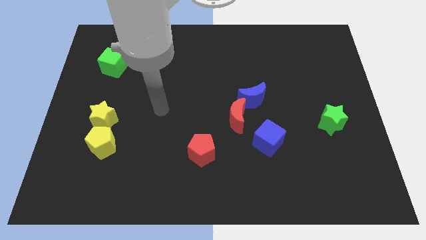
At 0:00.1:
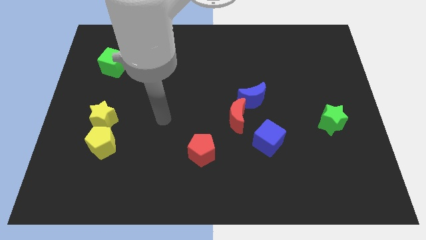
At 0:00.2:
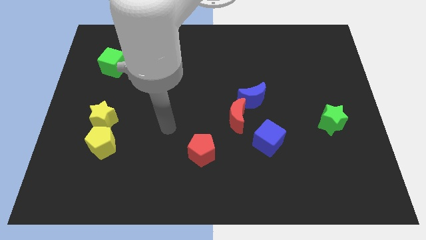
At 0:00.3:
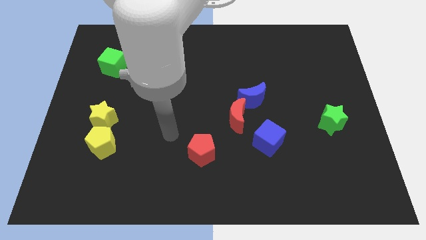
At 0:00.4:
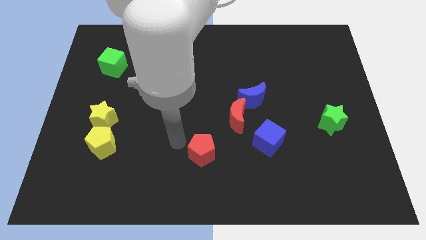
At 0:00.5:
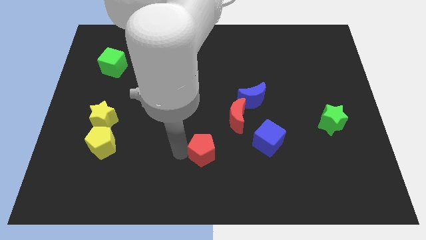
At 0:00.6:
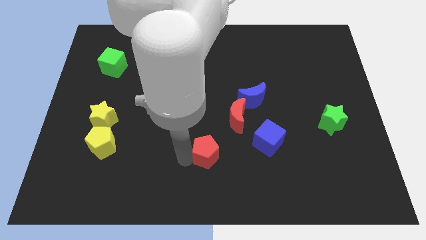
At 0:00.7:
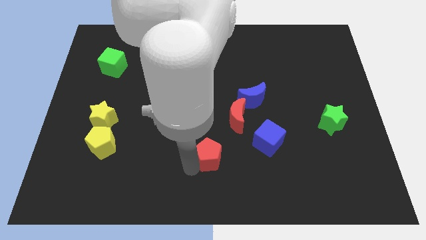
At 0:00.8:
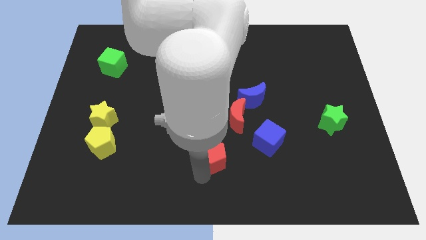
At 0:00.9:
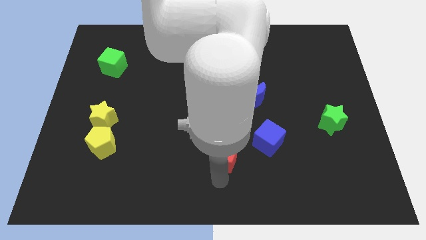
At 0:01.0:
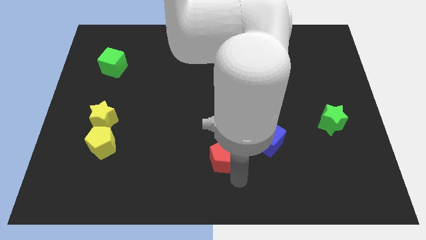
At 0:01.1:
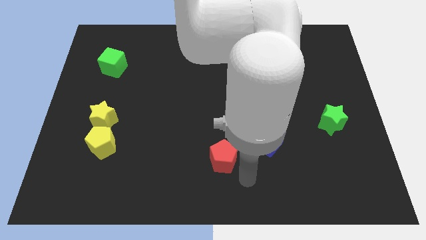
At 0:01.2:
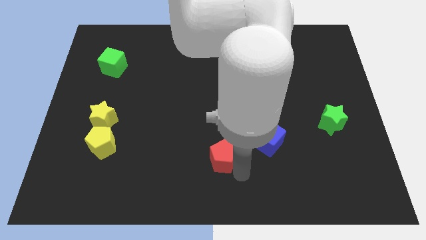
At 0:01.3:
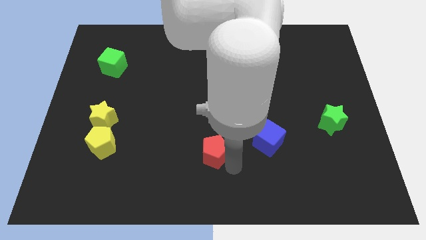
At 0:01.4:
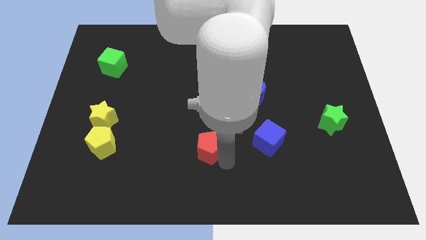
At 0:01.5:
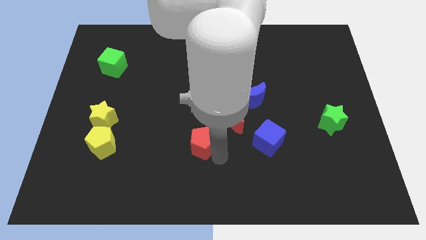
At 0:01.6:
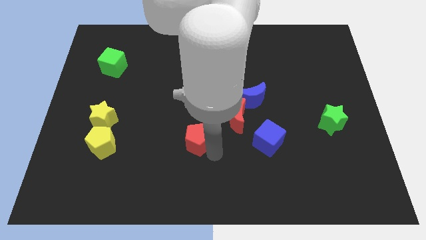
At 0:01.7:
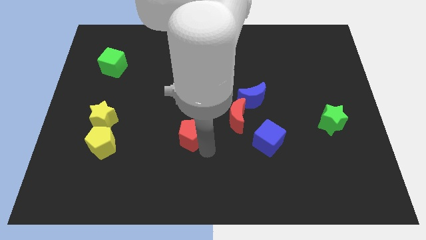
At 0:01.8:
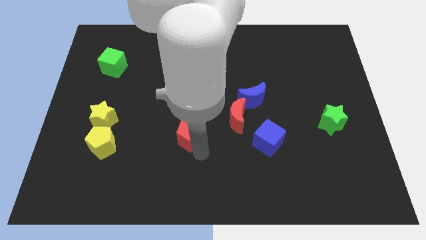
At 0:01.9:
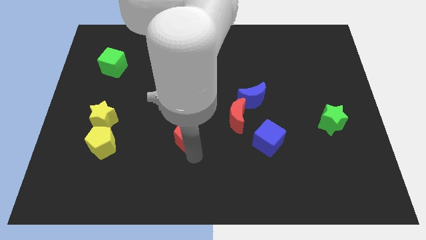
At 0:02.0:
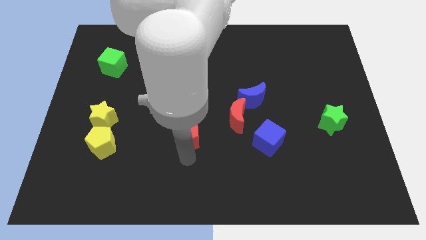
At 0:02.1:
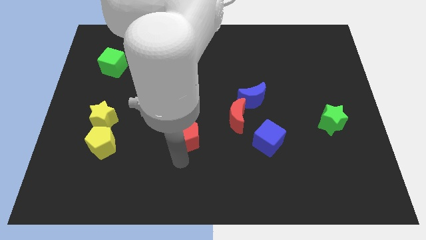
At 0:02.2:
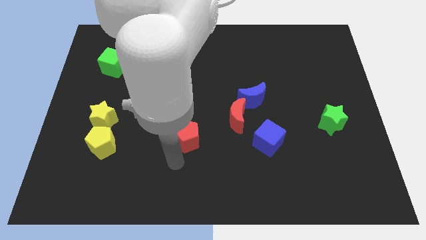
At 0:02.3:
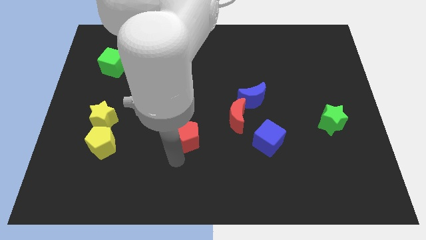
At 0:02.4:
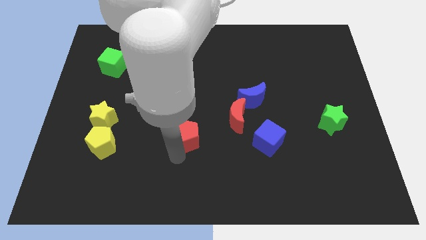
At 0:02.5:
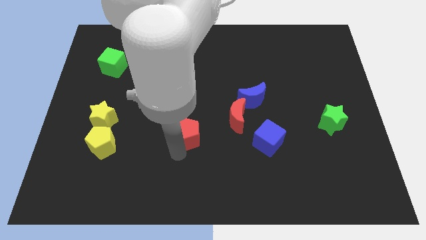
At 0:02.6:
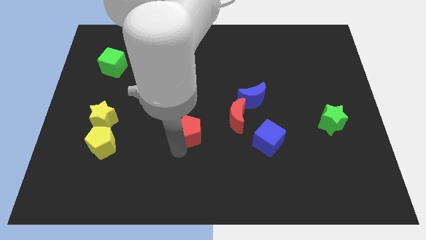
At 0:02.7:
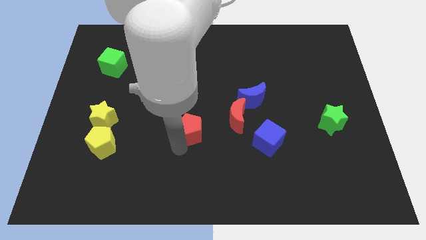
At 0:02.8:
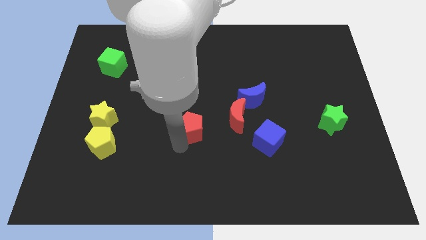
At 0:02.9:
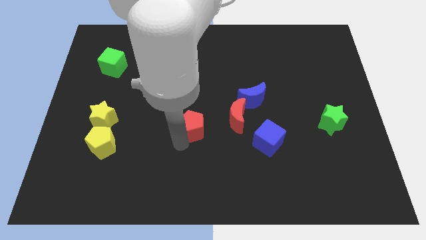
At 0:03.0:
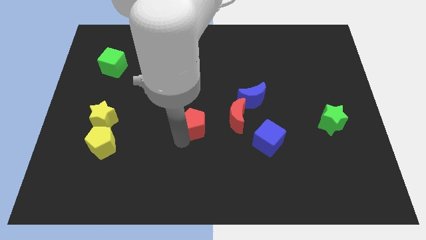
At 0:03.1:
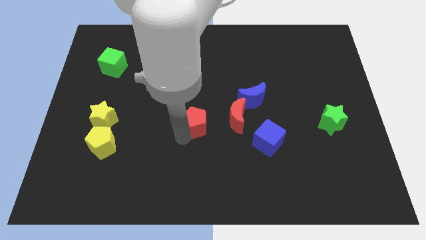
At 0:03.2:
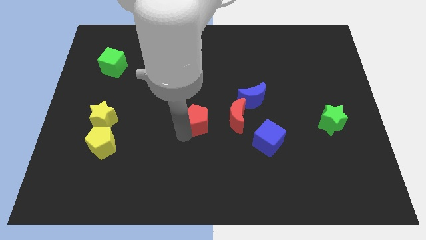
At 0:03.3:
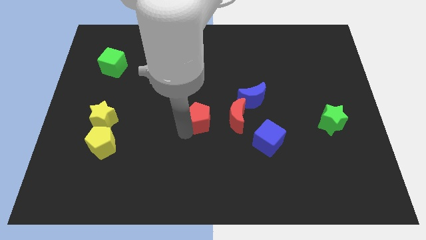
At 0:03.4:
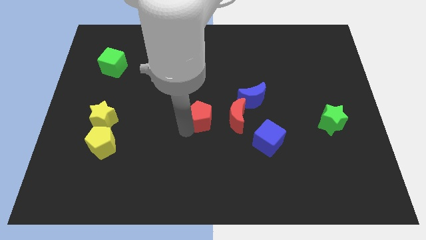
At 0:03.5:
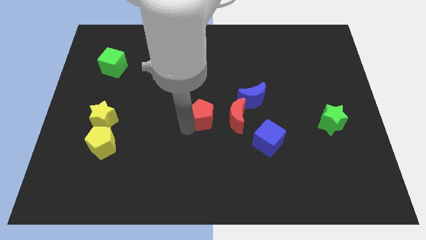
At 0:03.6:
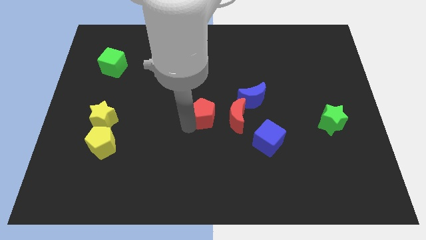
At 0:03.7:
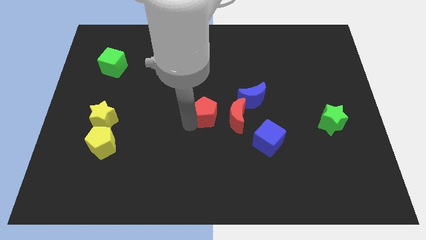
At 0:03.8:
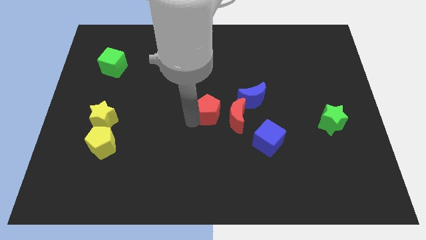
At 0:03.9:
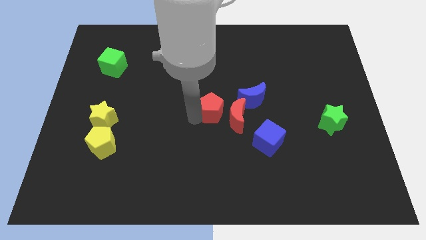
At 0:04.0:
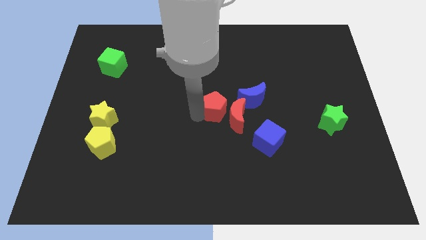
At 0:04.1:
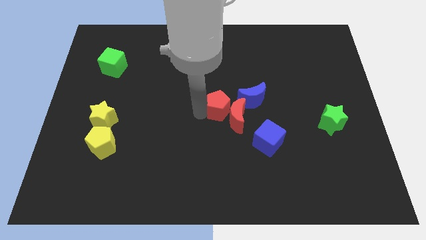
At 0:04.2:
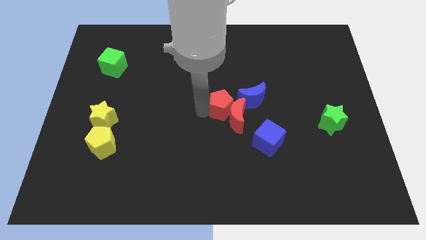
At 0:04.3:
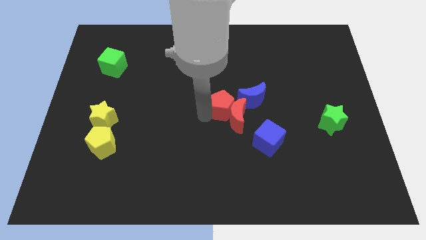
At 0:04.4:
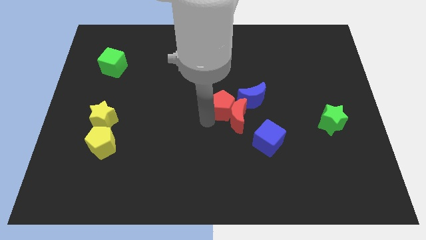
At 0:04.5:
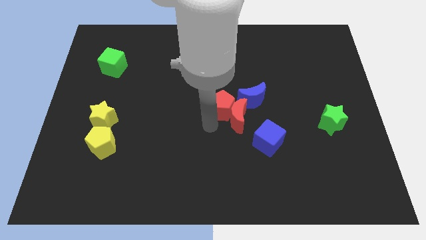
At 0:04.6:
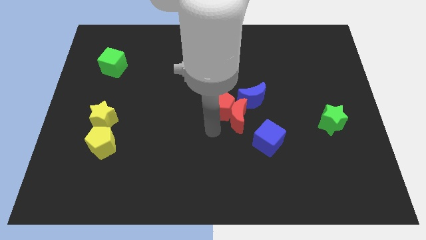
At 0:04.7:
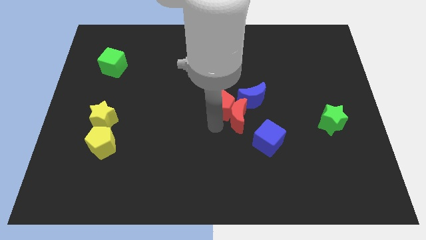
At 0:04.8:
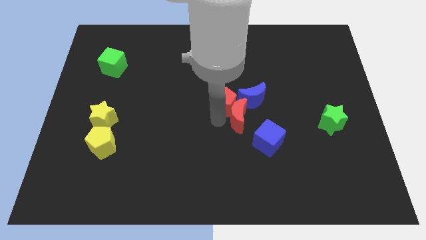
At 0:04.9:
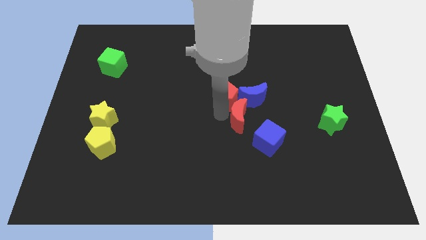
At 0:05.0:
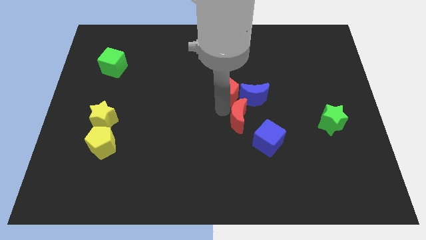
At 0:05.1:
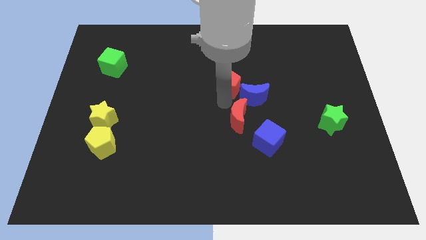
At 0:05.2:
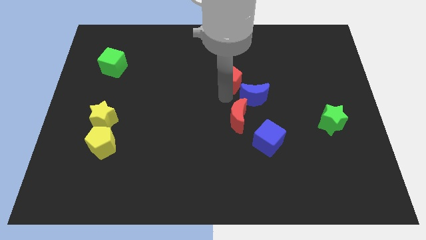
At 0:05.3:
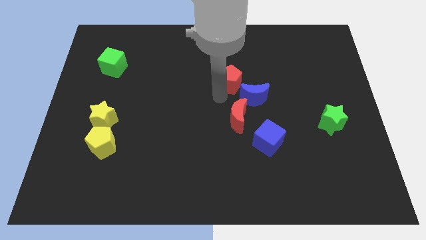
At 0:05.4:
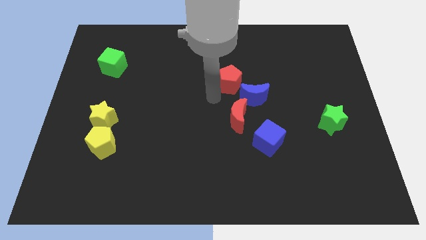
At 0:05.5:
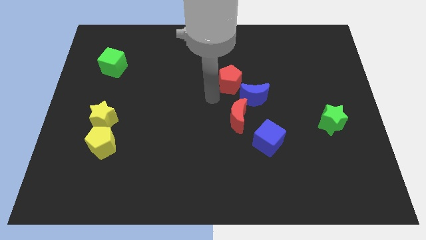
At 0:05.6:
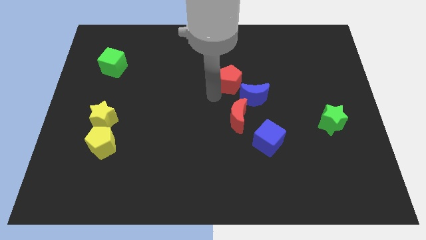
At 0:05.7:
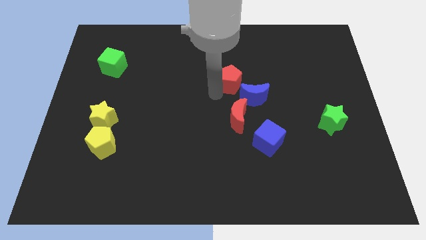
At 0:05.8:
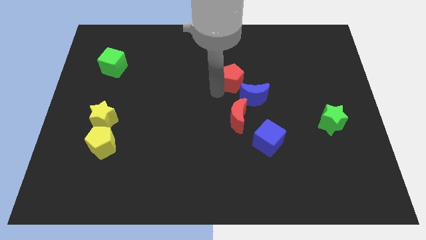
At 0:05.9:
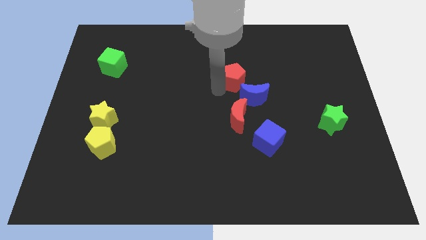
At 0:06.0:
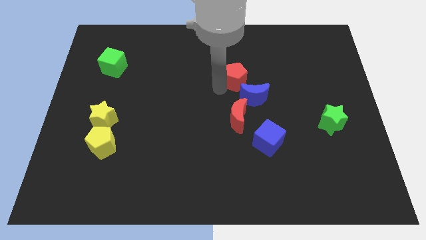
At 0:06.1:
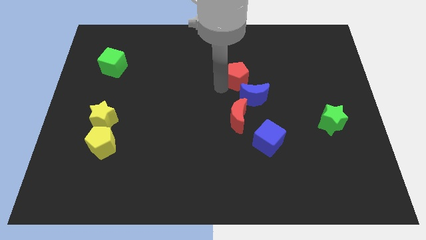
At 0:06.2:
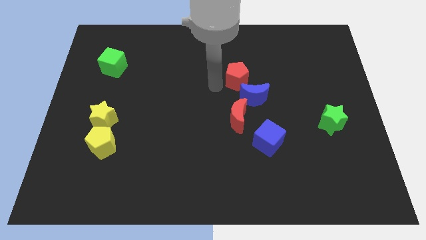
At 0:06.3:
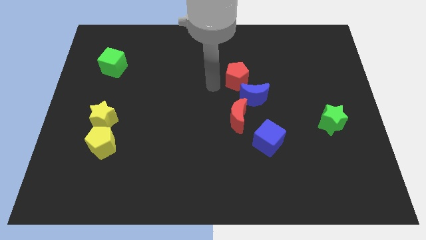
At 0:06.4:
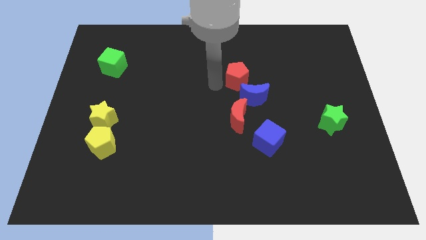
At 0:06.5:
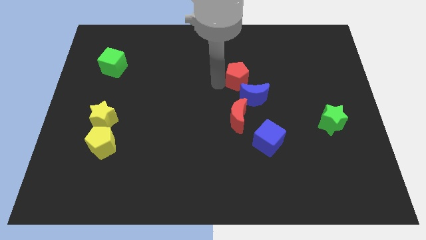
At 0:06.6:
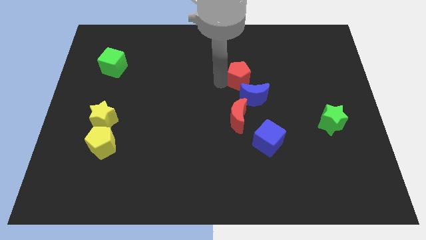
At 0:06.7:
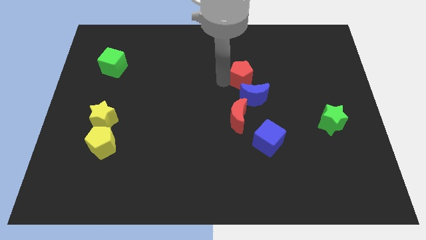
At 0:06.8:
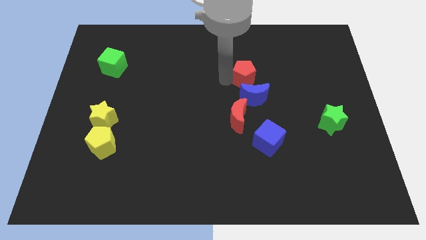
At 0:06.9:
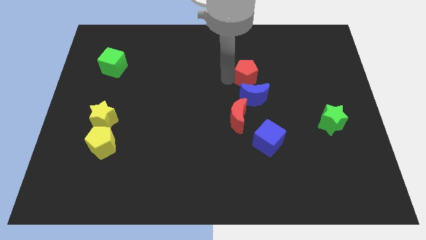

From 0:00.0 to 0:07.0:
push the red pentagon up and to the right

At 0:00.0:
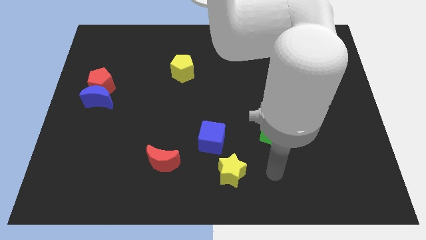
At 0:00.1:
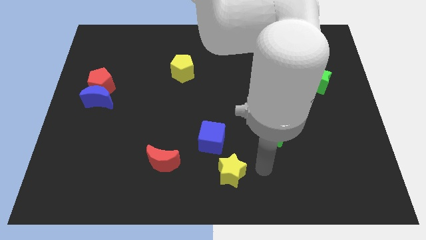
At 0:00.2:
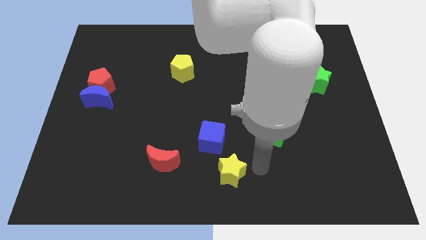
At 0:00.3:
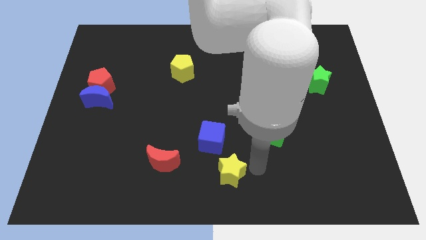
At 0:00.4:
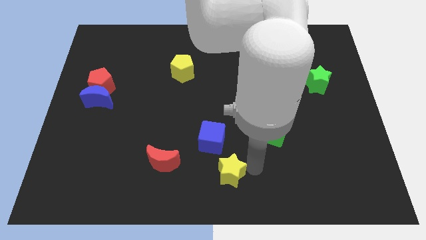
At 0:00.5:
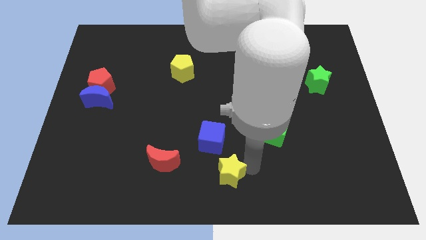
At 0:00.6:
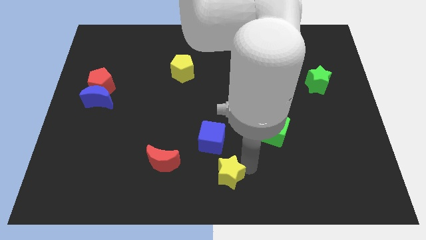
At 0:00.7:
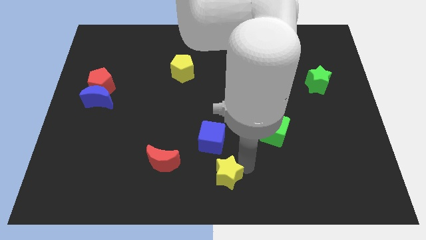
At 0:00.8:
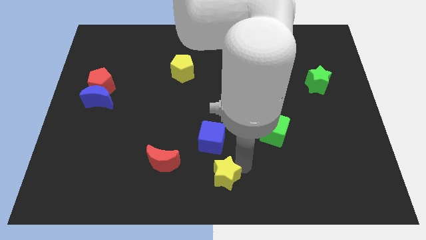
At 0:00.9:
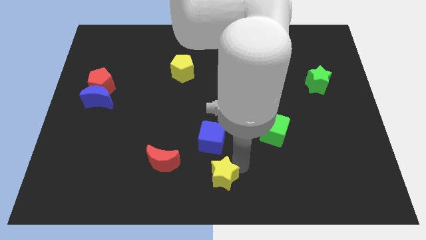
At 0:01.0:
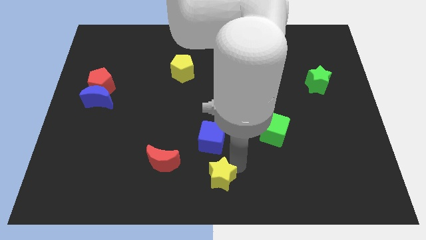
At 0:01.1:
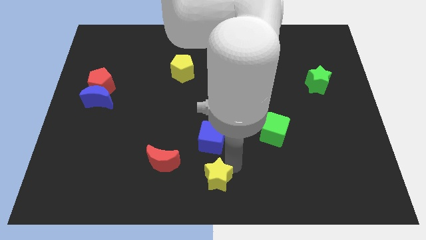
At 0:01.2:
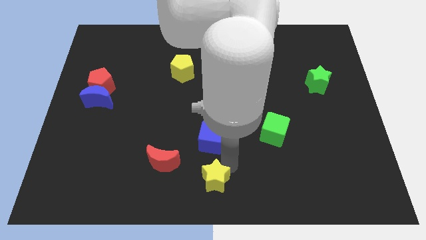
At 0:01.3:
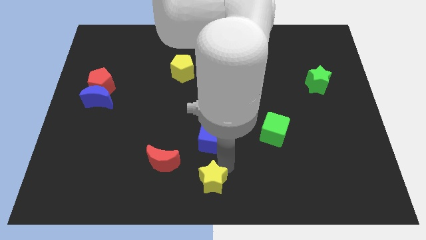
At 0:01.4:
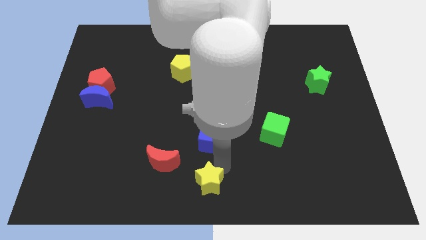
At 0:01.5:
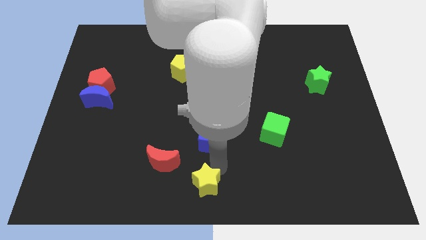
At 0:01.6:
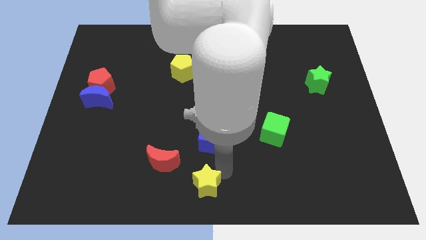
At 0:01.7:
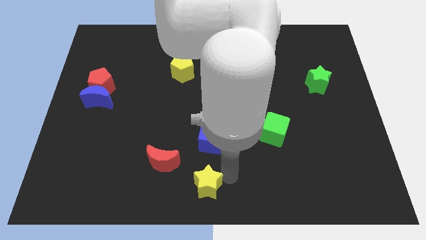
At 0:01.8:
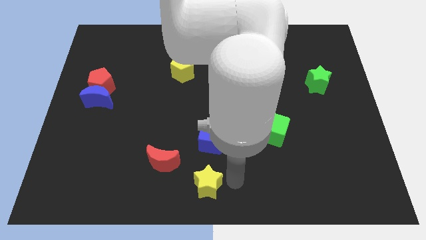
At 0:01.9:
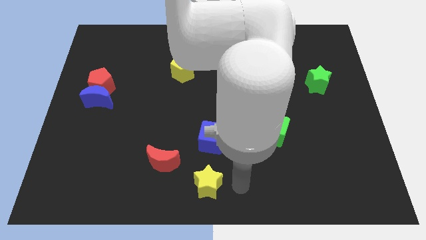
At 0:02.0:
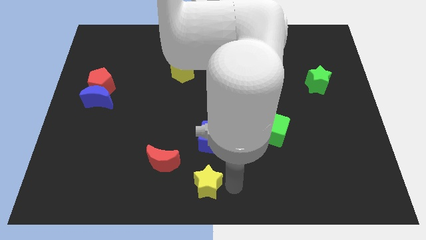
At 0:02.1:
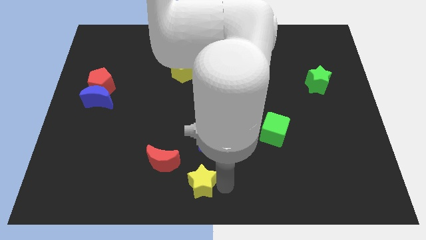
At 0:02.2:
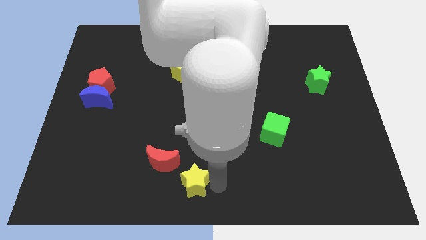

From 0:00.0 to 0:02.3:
move the yellow star left somewhat
